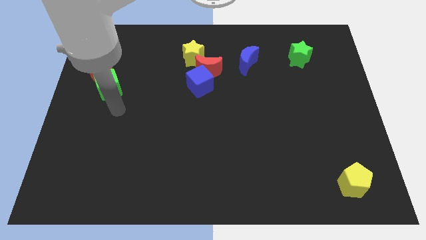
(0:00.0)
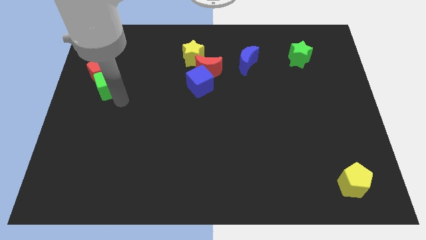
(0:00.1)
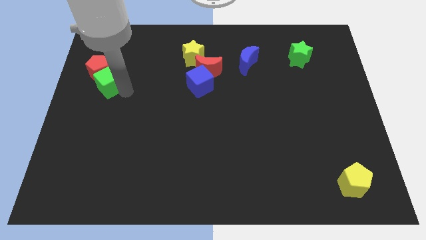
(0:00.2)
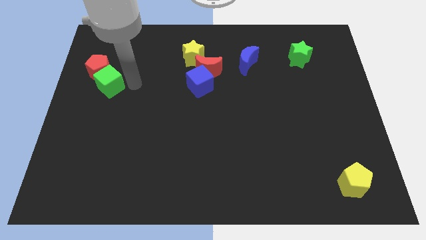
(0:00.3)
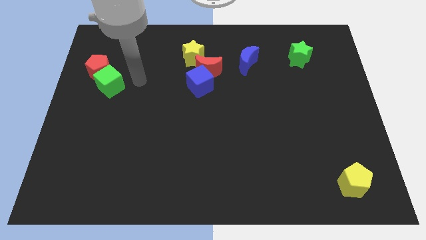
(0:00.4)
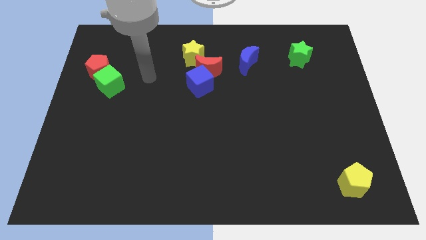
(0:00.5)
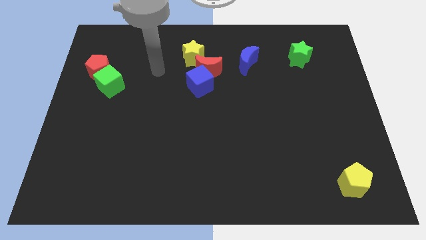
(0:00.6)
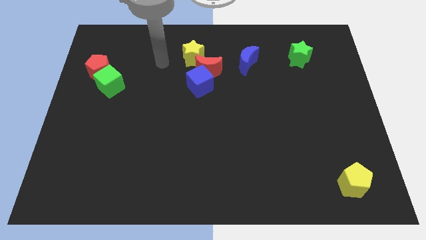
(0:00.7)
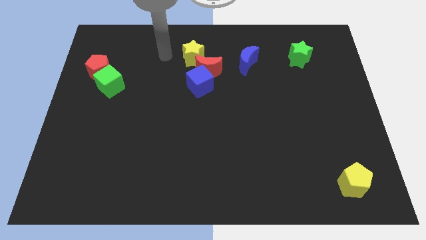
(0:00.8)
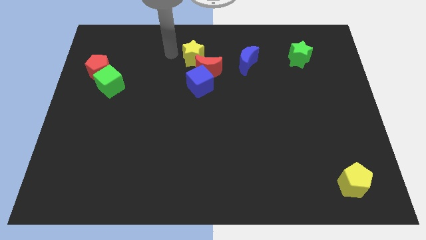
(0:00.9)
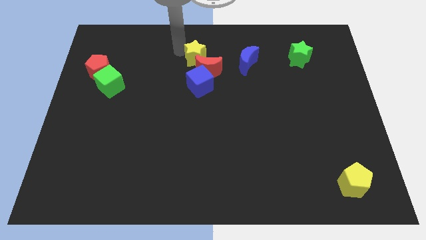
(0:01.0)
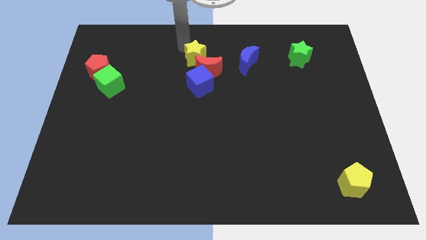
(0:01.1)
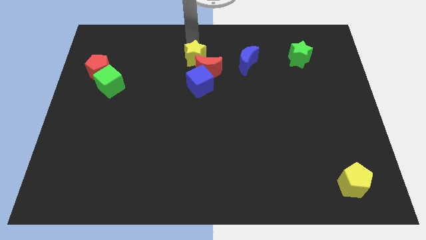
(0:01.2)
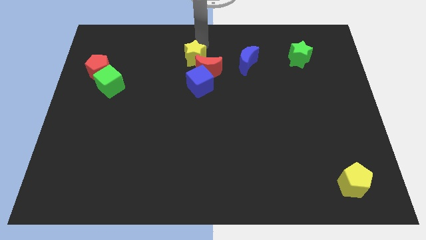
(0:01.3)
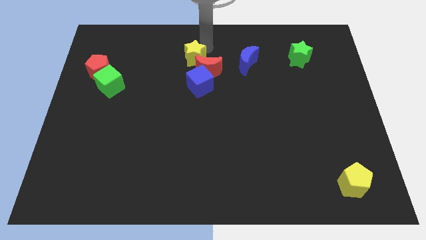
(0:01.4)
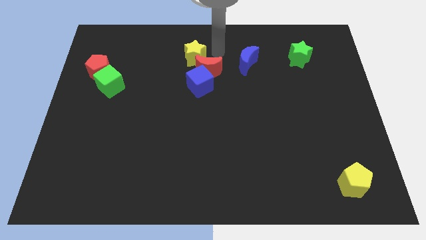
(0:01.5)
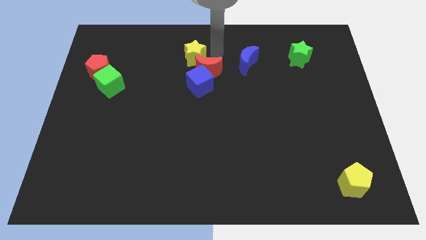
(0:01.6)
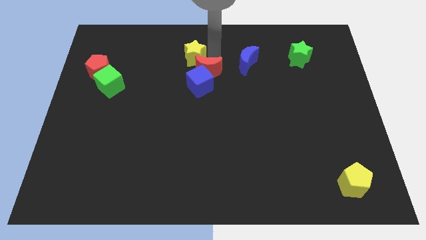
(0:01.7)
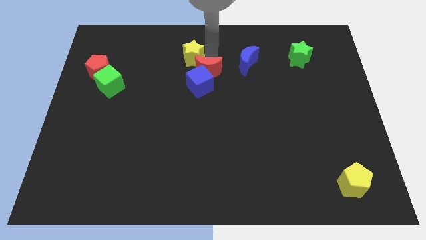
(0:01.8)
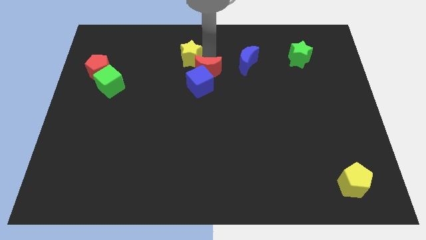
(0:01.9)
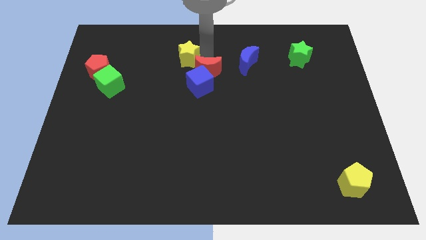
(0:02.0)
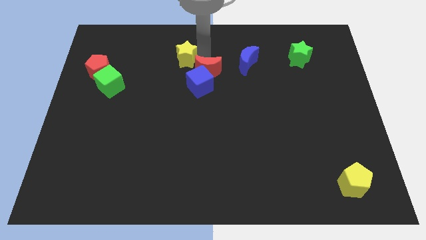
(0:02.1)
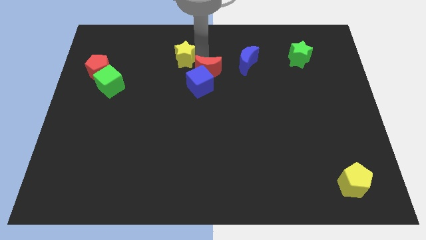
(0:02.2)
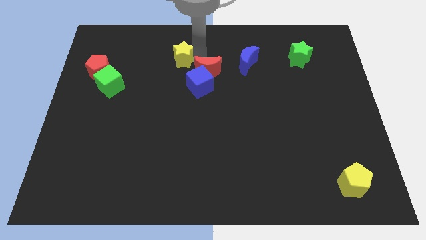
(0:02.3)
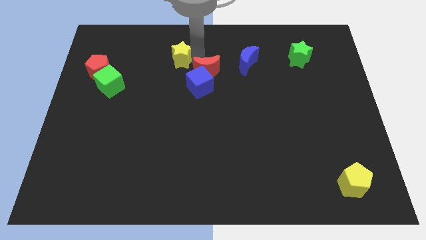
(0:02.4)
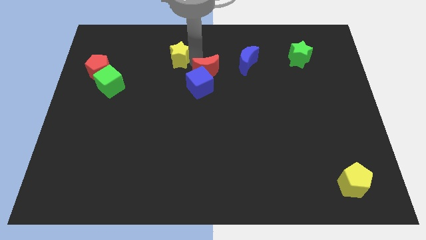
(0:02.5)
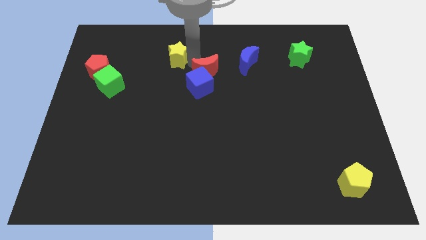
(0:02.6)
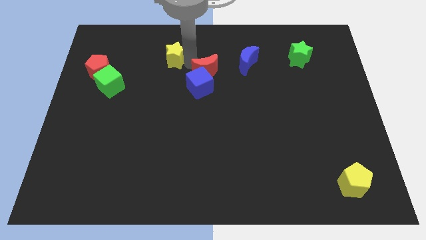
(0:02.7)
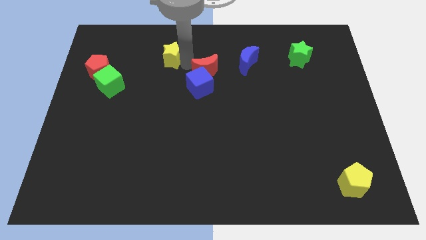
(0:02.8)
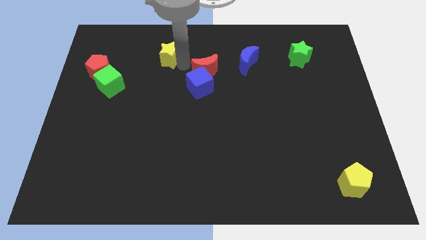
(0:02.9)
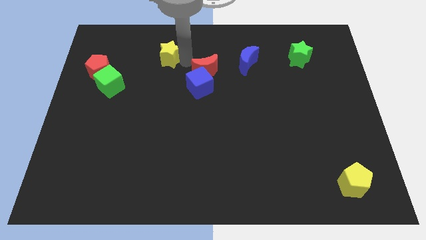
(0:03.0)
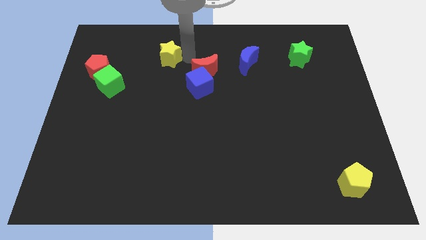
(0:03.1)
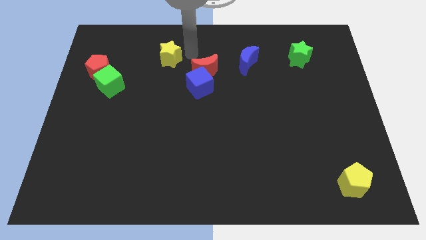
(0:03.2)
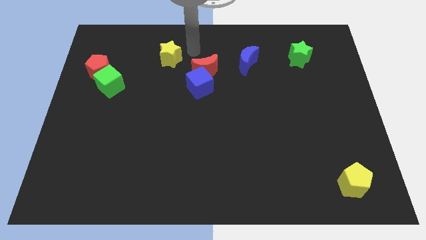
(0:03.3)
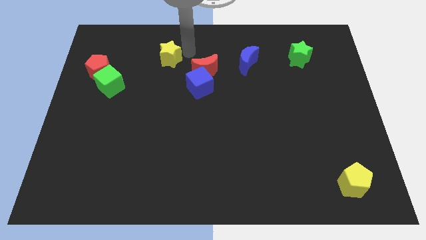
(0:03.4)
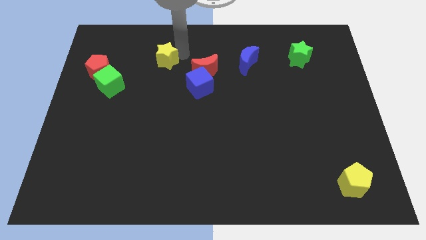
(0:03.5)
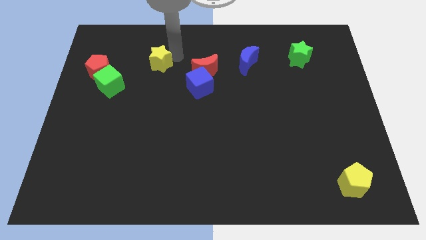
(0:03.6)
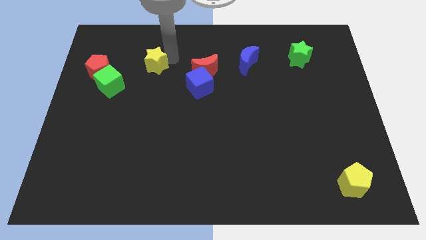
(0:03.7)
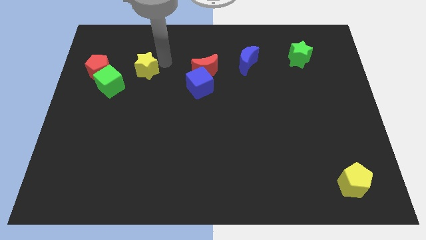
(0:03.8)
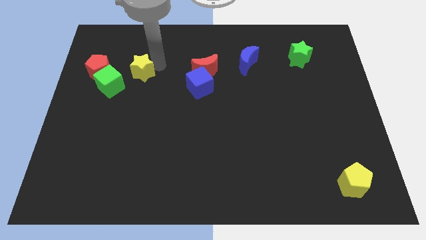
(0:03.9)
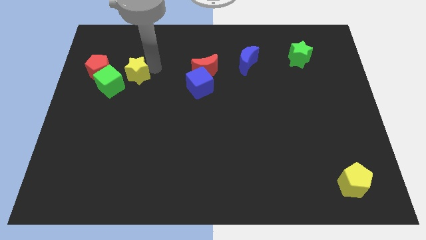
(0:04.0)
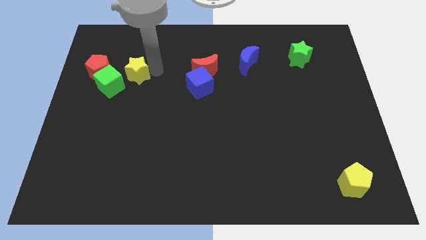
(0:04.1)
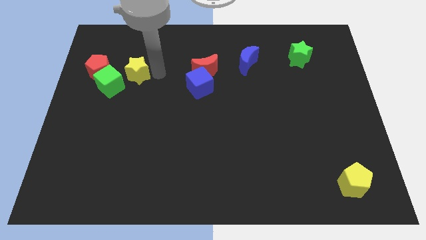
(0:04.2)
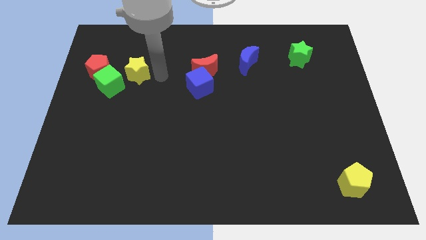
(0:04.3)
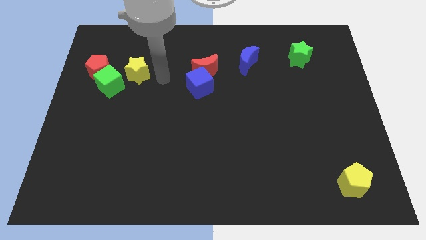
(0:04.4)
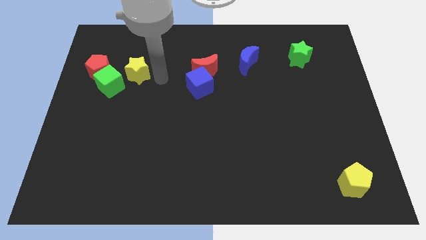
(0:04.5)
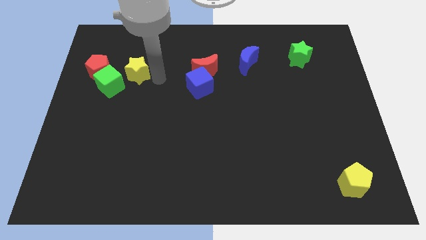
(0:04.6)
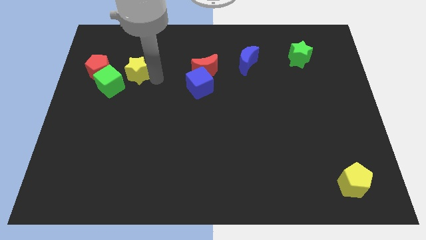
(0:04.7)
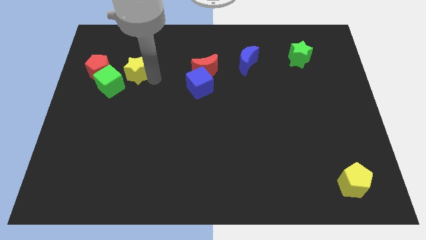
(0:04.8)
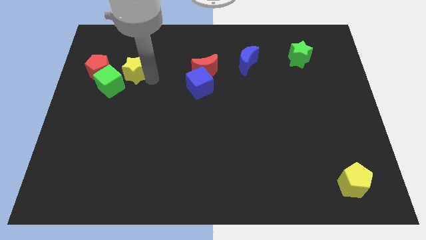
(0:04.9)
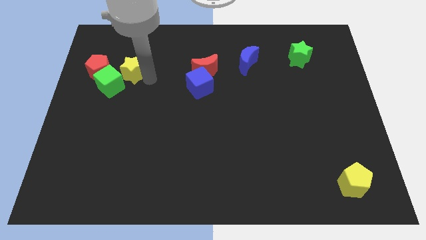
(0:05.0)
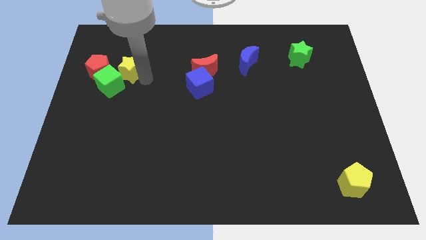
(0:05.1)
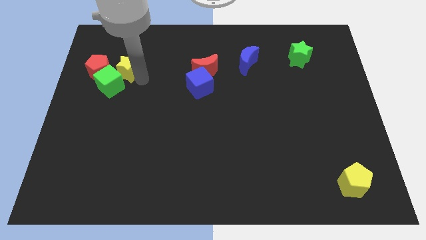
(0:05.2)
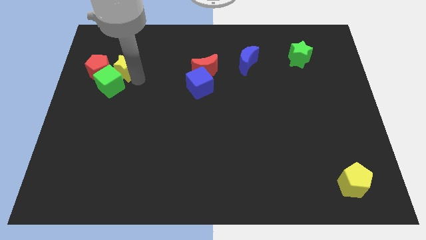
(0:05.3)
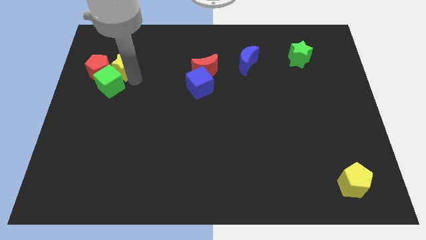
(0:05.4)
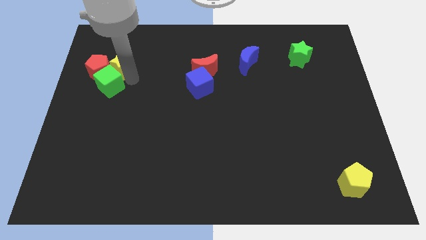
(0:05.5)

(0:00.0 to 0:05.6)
put the yellow star to the red pentagon
